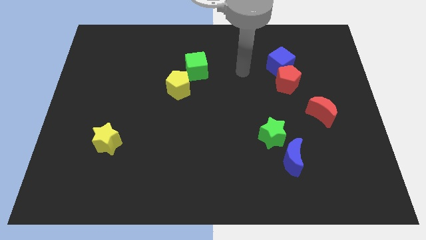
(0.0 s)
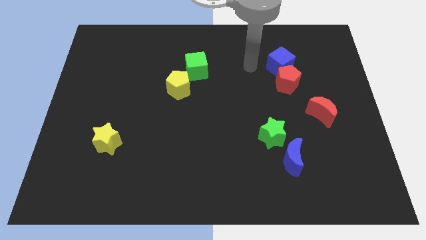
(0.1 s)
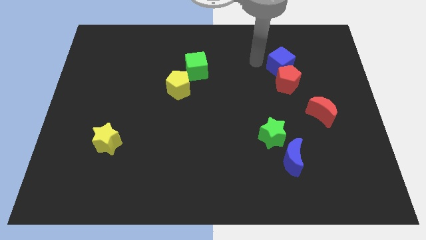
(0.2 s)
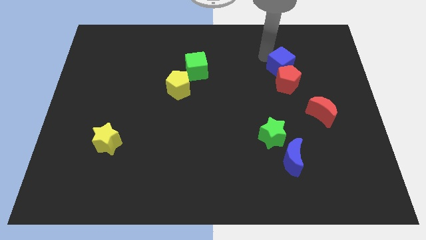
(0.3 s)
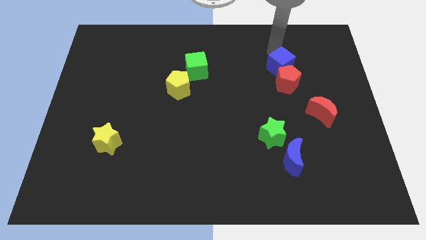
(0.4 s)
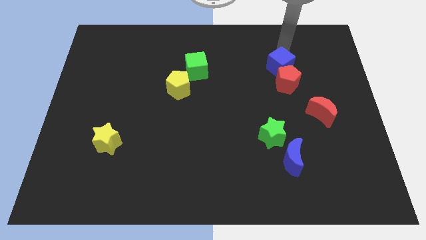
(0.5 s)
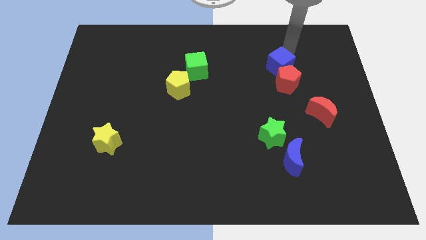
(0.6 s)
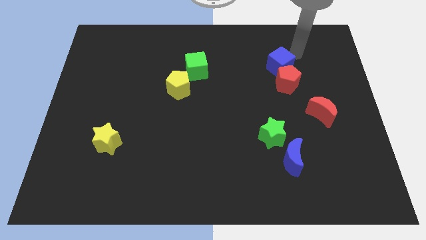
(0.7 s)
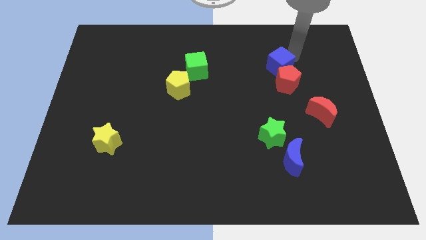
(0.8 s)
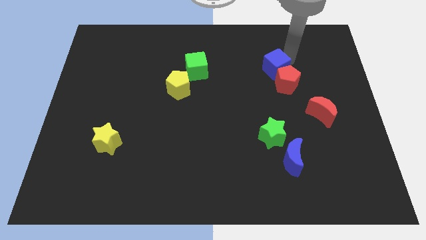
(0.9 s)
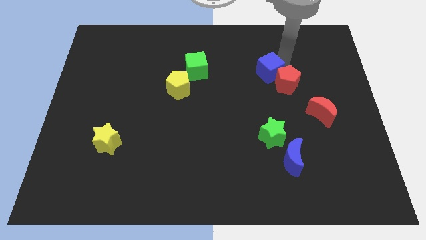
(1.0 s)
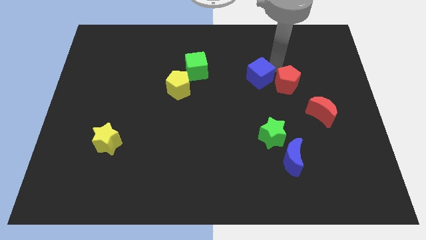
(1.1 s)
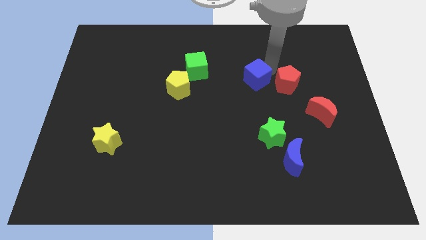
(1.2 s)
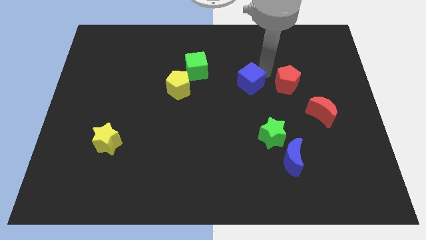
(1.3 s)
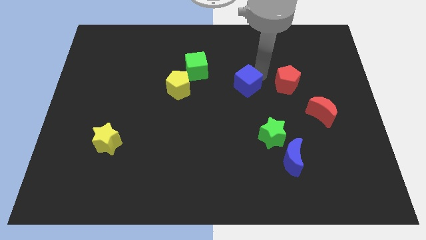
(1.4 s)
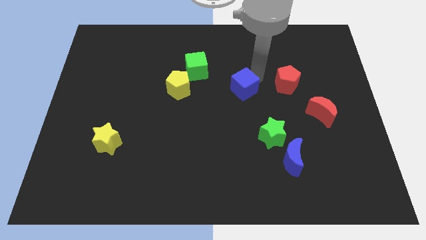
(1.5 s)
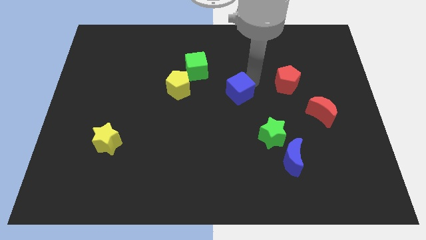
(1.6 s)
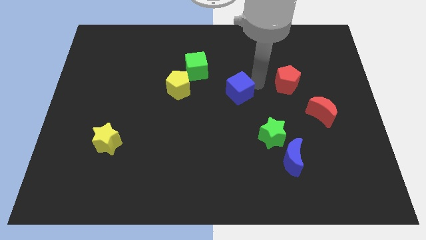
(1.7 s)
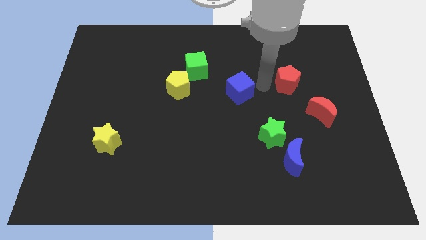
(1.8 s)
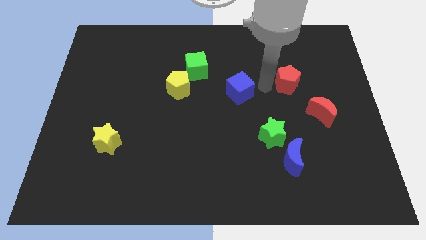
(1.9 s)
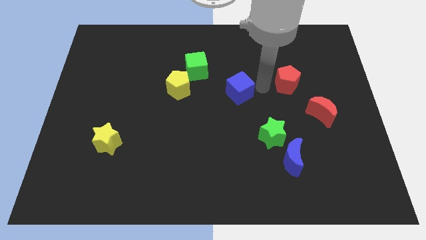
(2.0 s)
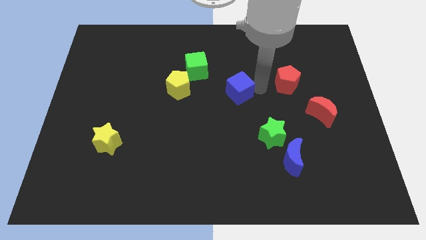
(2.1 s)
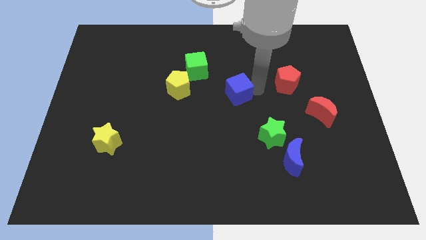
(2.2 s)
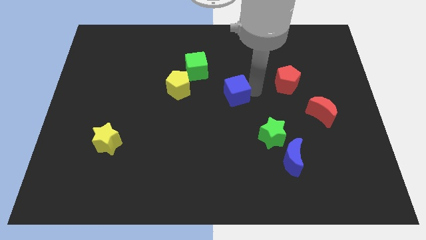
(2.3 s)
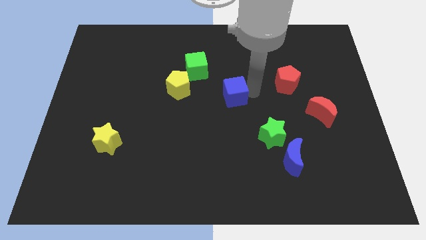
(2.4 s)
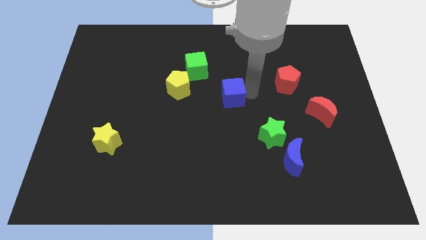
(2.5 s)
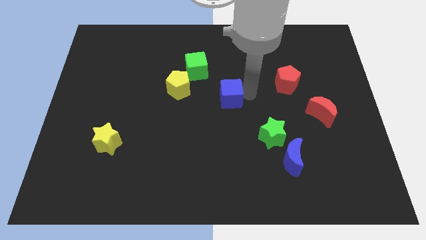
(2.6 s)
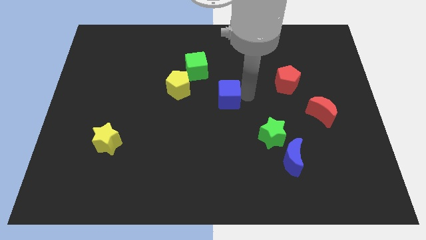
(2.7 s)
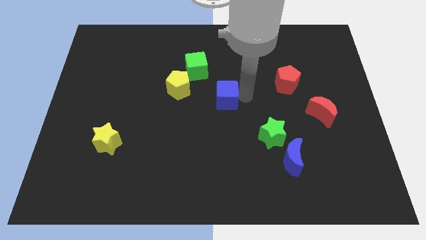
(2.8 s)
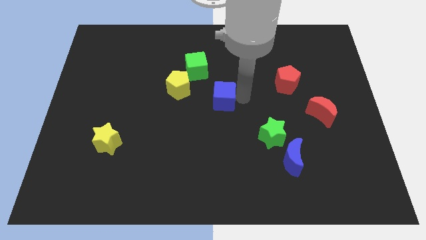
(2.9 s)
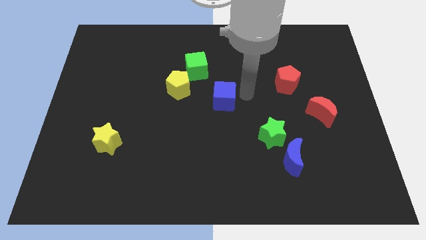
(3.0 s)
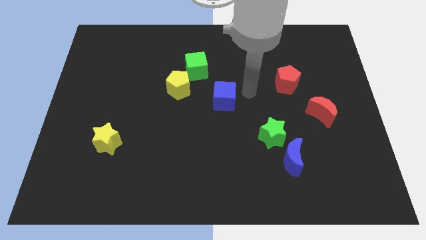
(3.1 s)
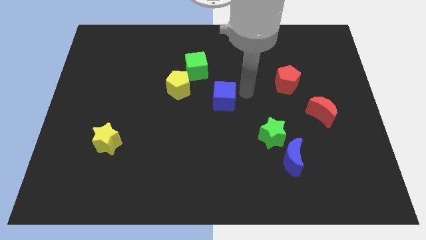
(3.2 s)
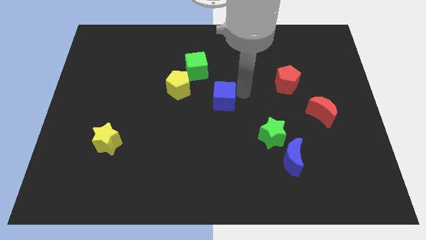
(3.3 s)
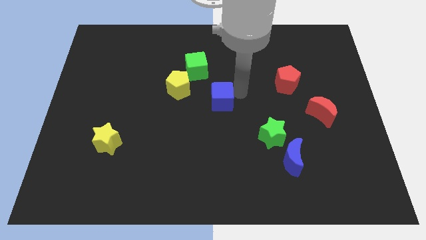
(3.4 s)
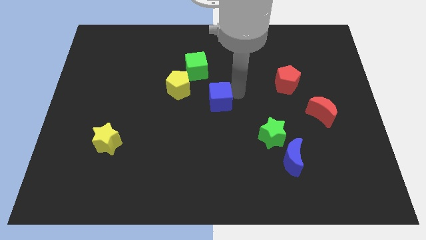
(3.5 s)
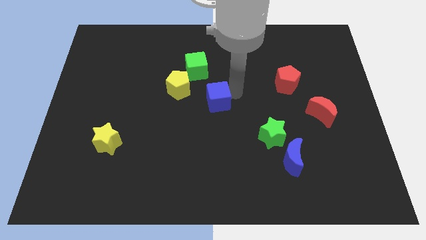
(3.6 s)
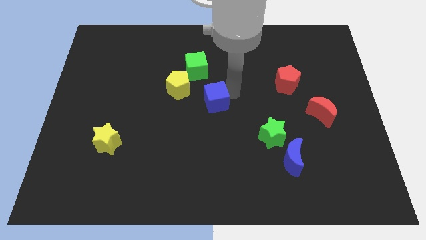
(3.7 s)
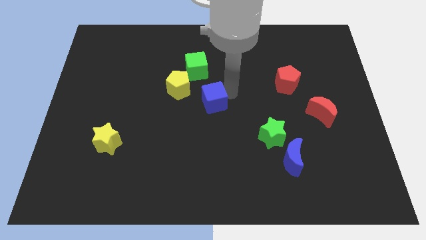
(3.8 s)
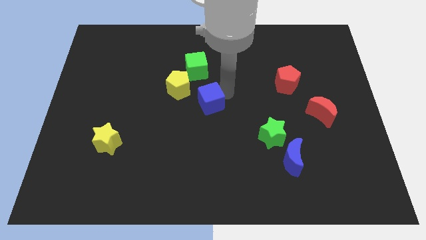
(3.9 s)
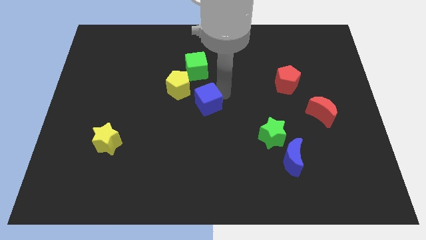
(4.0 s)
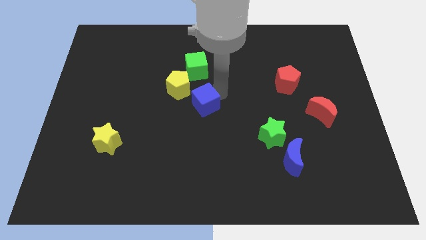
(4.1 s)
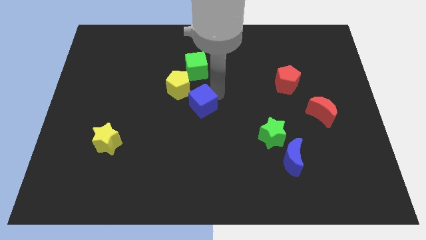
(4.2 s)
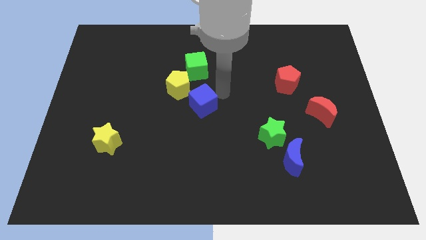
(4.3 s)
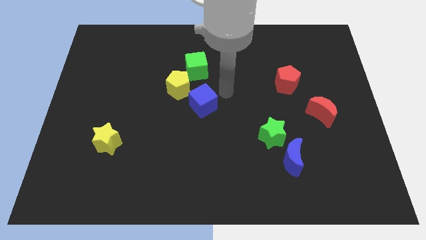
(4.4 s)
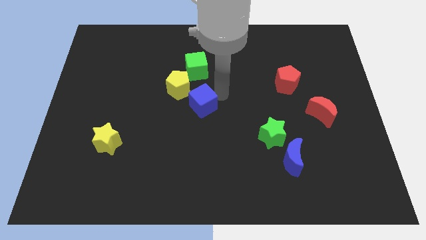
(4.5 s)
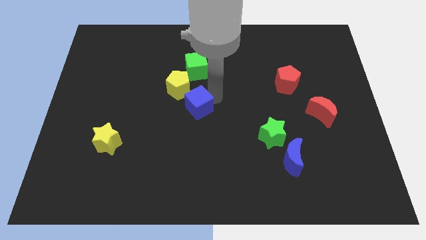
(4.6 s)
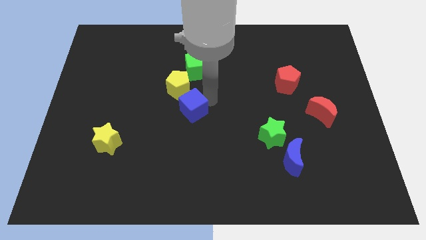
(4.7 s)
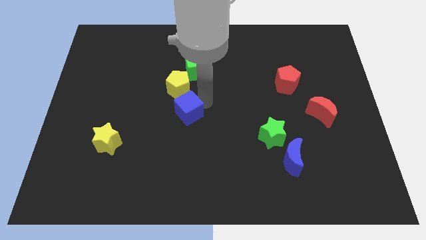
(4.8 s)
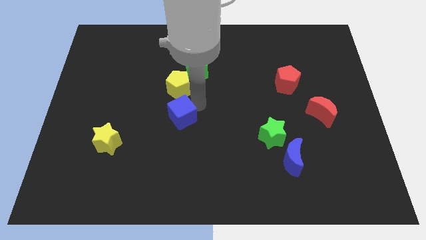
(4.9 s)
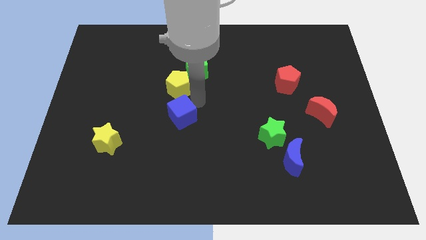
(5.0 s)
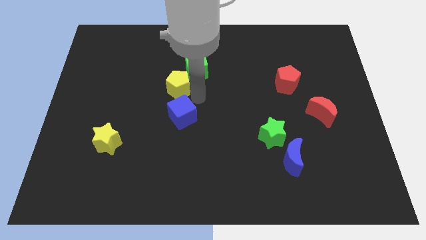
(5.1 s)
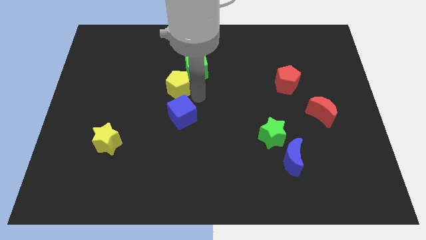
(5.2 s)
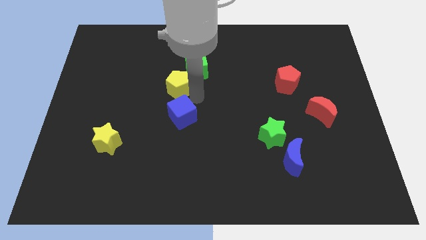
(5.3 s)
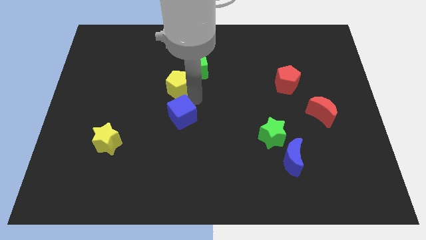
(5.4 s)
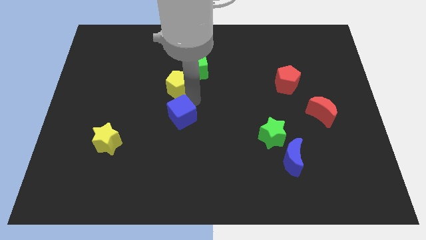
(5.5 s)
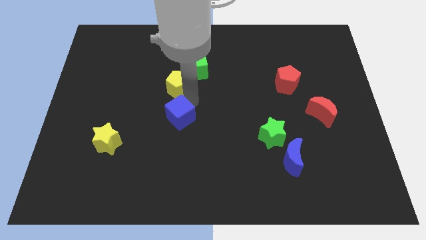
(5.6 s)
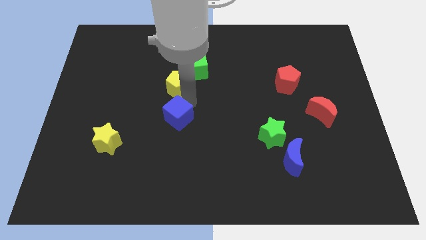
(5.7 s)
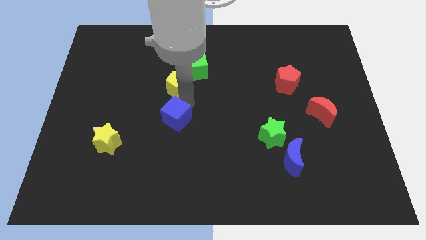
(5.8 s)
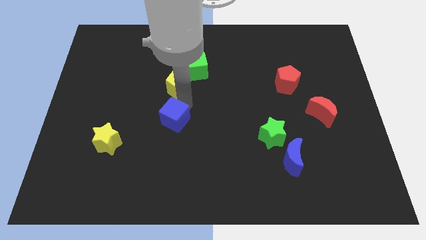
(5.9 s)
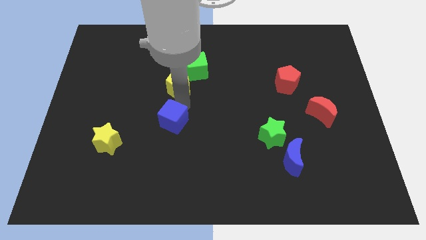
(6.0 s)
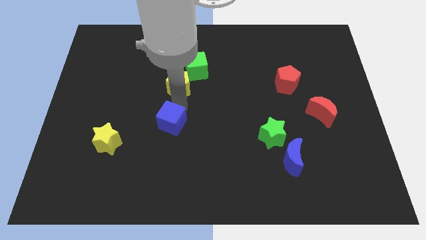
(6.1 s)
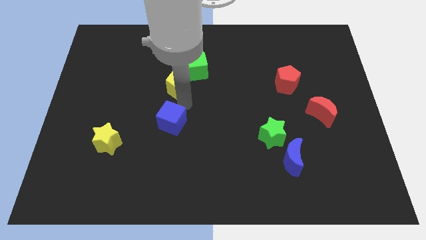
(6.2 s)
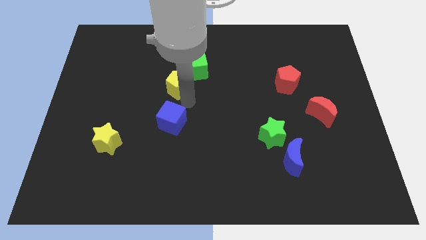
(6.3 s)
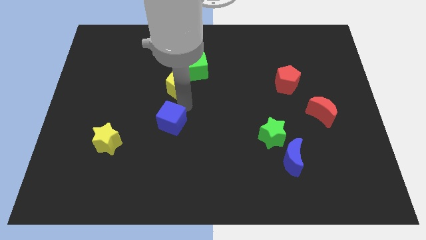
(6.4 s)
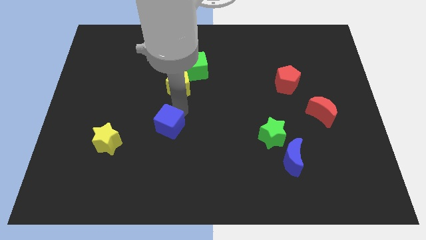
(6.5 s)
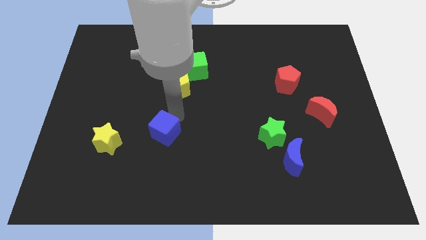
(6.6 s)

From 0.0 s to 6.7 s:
slide the blue cube right of the yellow star
